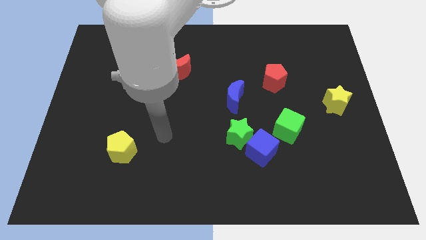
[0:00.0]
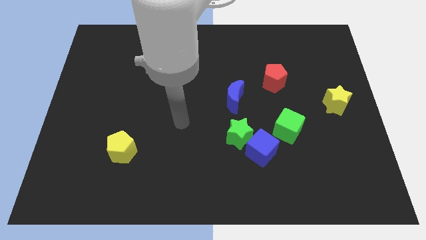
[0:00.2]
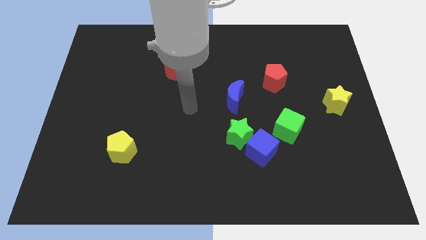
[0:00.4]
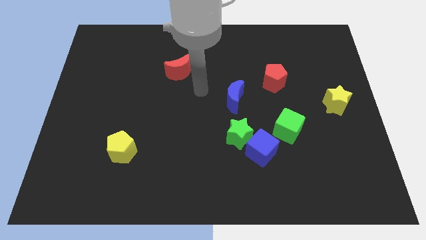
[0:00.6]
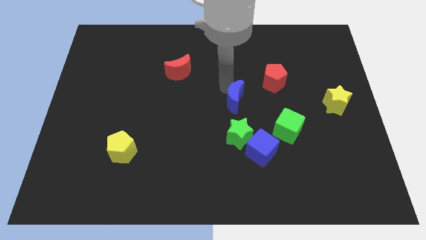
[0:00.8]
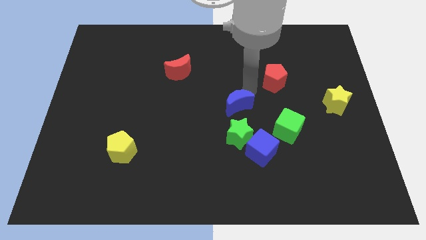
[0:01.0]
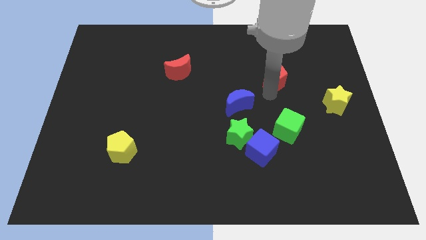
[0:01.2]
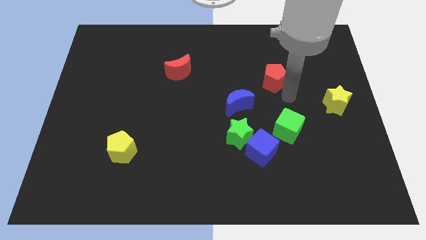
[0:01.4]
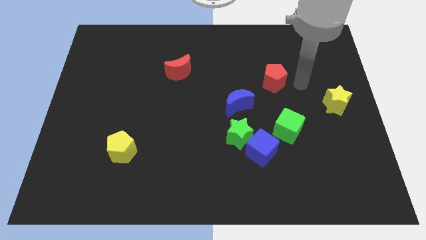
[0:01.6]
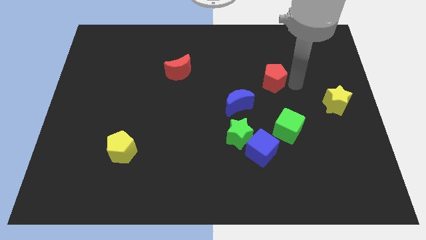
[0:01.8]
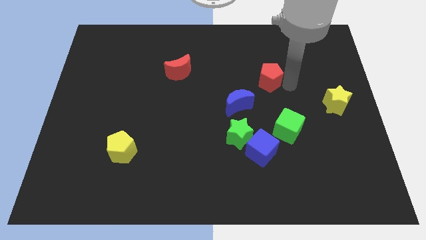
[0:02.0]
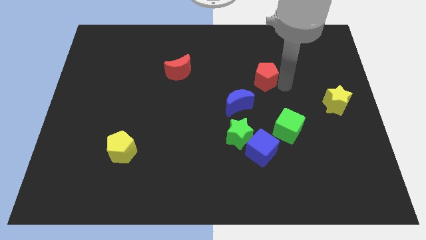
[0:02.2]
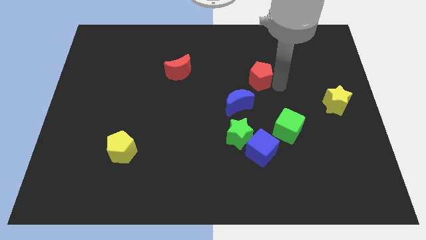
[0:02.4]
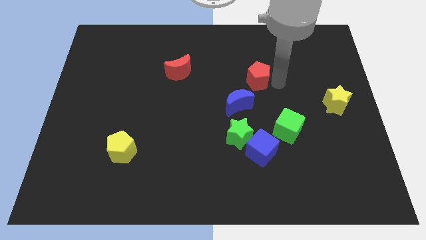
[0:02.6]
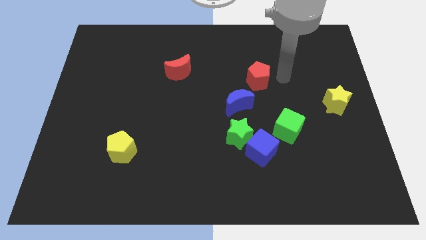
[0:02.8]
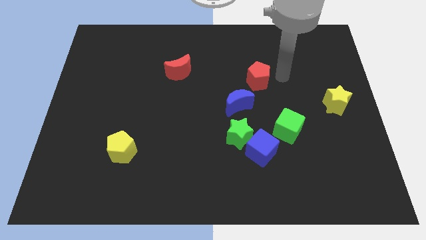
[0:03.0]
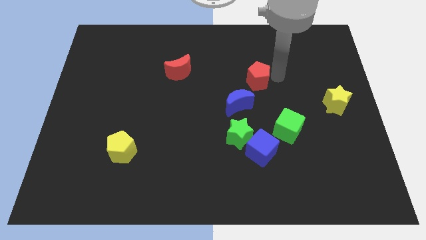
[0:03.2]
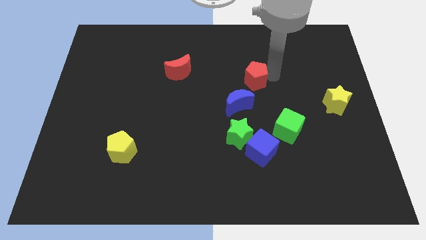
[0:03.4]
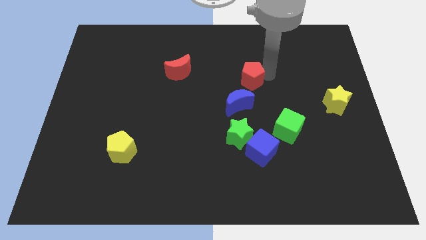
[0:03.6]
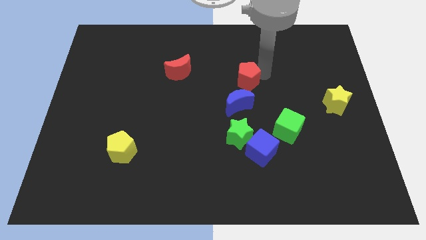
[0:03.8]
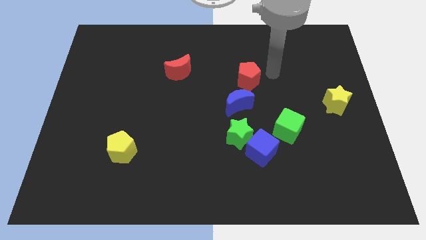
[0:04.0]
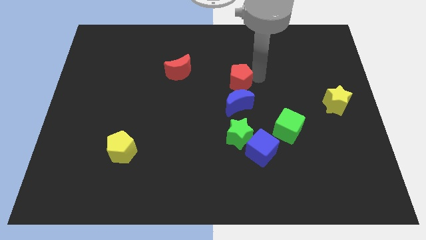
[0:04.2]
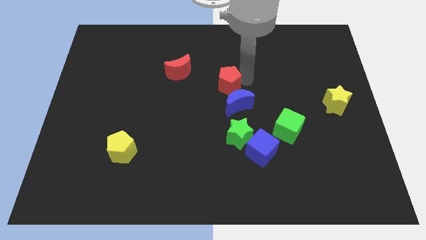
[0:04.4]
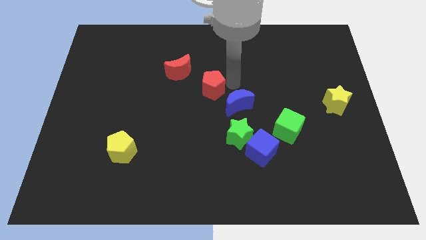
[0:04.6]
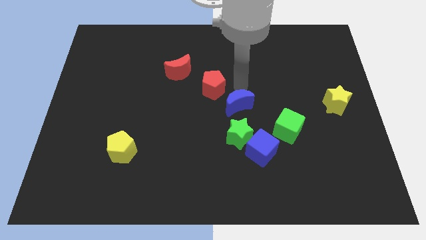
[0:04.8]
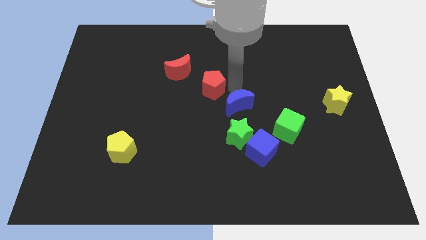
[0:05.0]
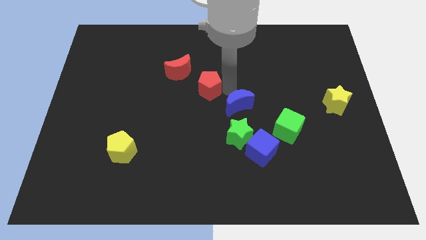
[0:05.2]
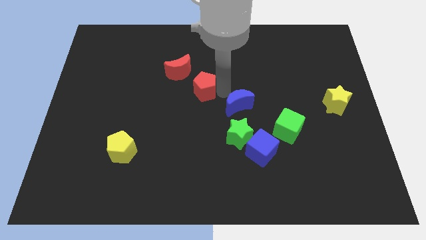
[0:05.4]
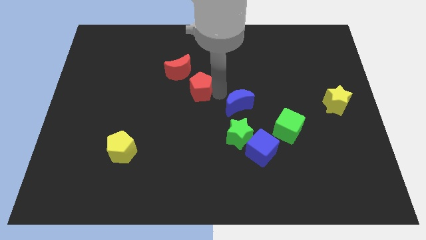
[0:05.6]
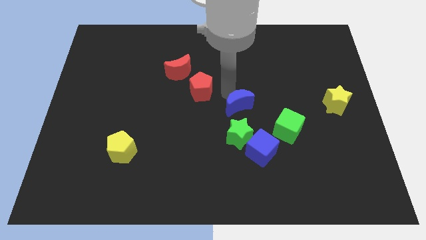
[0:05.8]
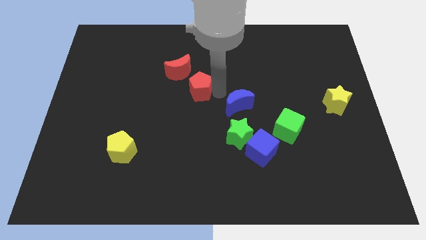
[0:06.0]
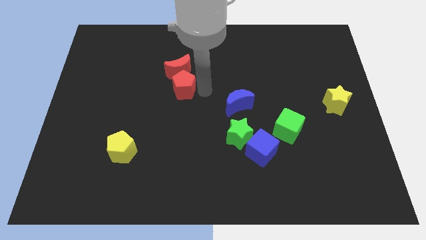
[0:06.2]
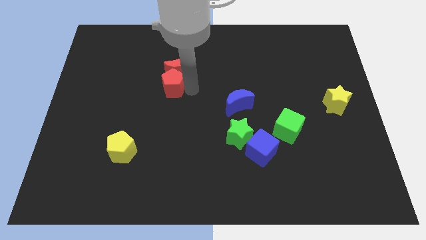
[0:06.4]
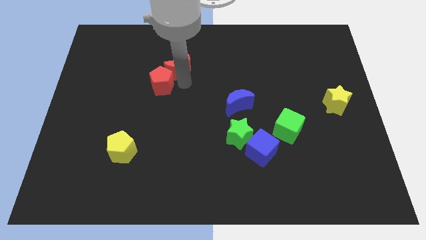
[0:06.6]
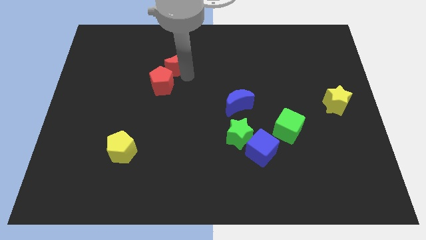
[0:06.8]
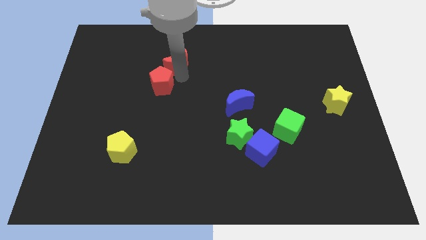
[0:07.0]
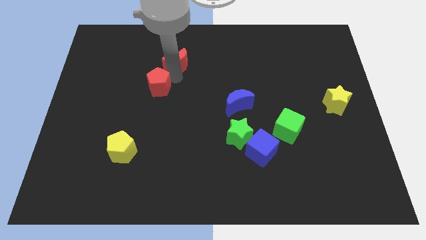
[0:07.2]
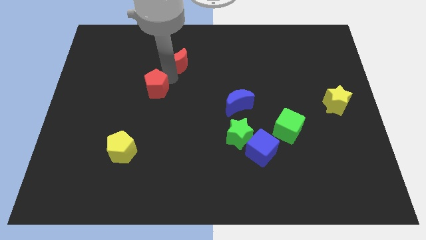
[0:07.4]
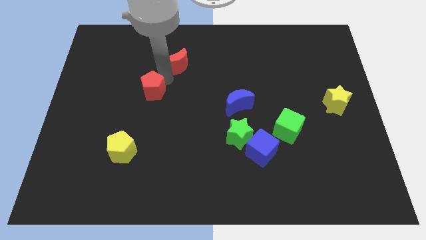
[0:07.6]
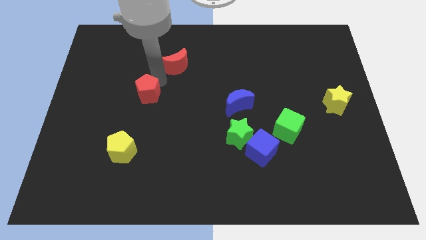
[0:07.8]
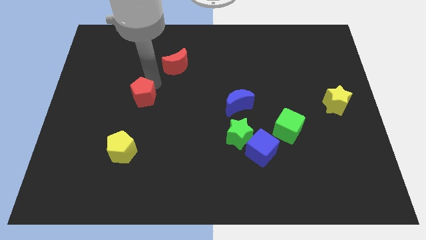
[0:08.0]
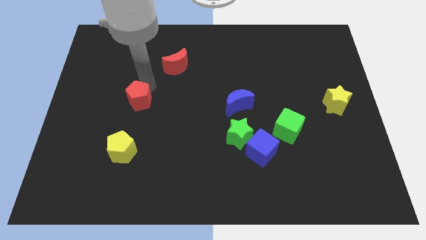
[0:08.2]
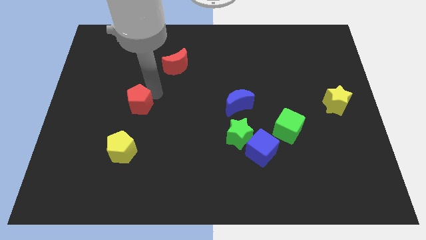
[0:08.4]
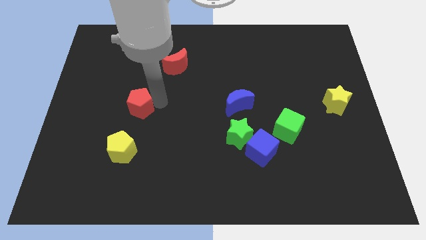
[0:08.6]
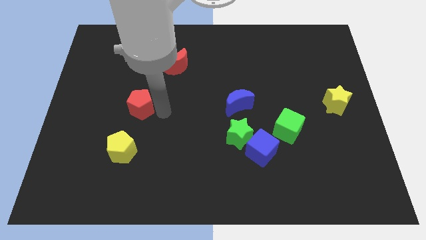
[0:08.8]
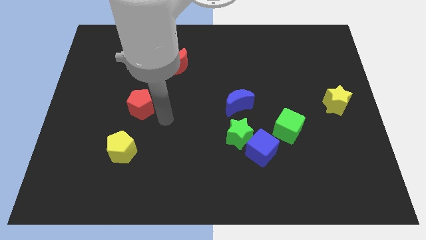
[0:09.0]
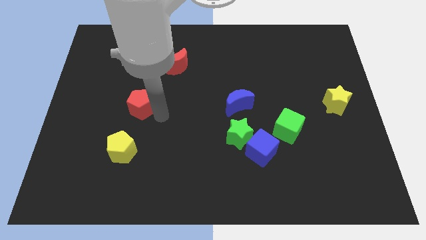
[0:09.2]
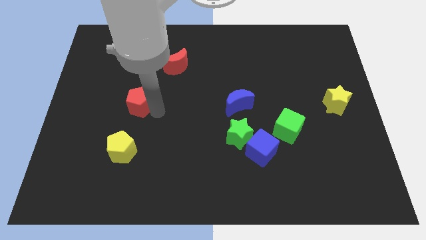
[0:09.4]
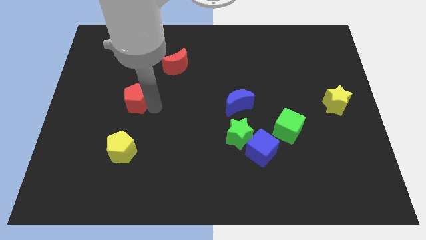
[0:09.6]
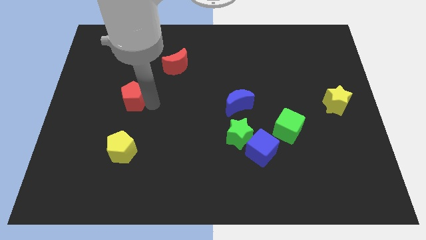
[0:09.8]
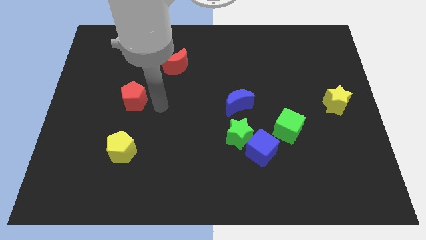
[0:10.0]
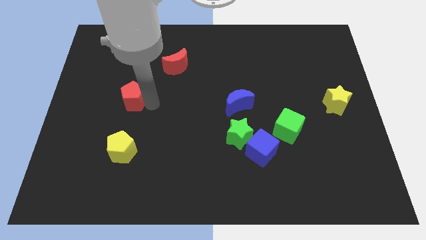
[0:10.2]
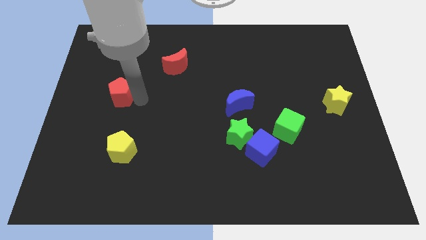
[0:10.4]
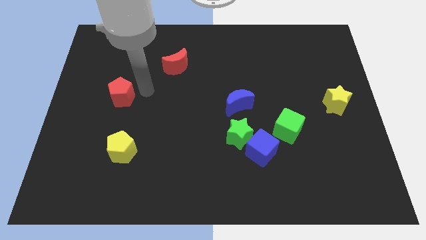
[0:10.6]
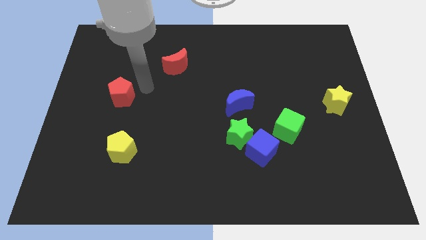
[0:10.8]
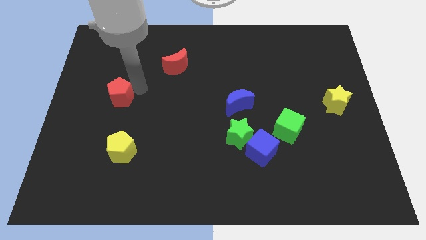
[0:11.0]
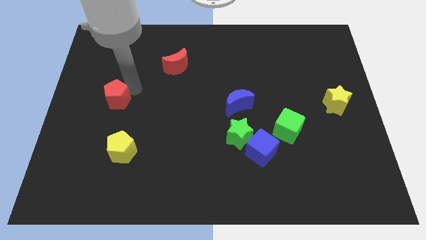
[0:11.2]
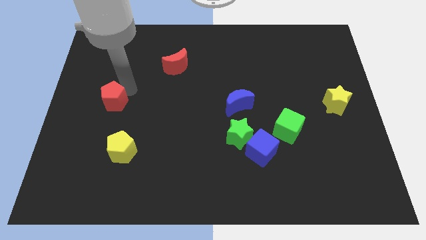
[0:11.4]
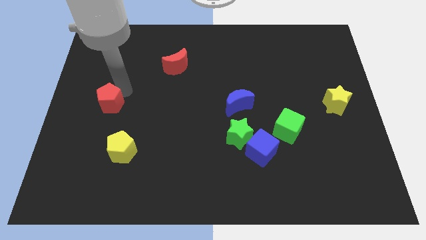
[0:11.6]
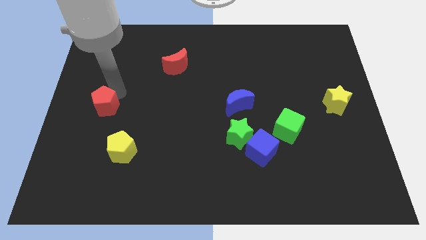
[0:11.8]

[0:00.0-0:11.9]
slide the red pentagon to the center left

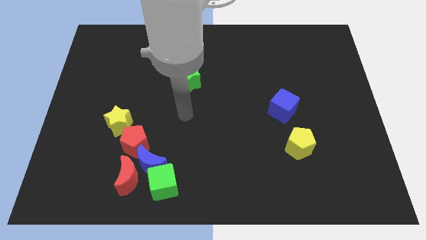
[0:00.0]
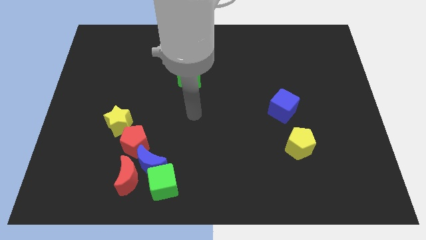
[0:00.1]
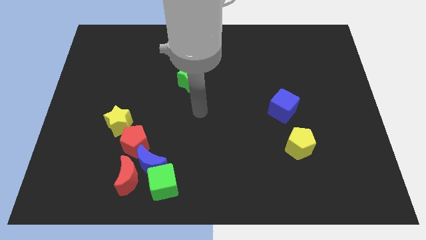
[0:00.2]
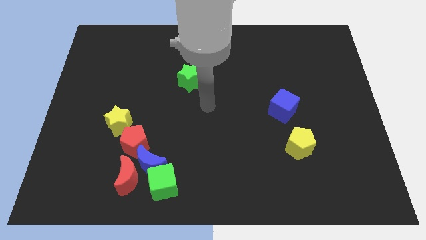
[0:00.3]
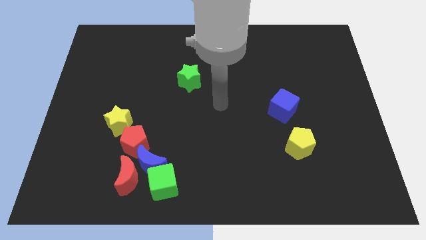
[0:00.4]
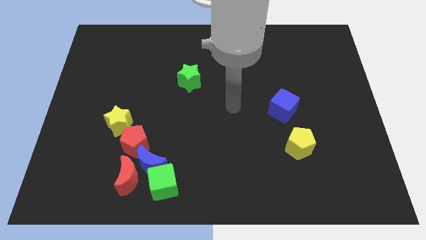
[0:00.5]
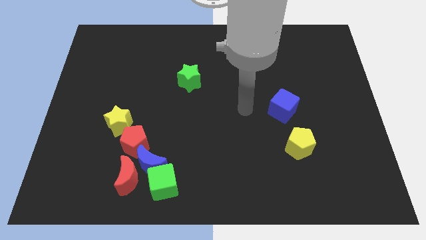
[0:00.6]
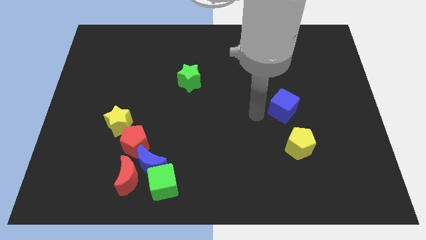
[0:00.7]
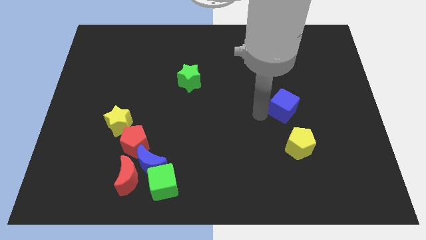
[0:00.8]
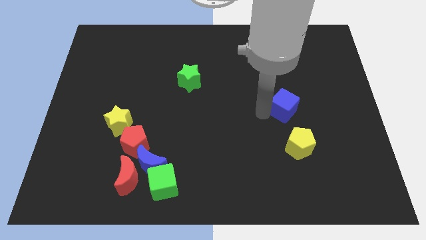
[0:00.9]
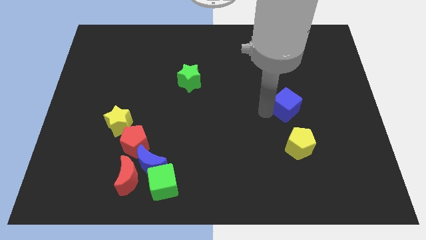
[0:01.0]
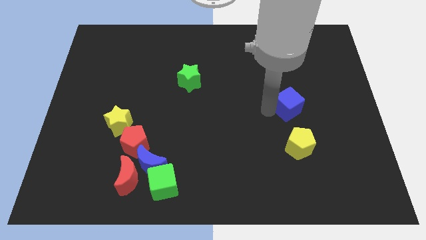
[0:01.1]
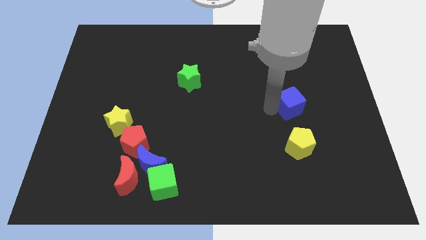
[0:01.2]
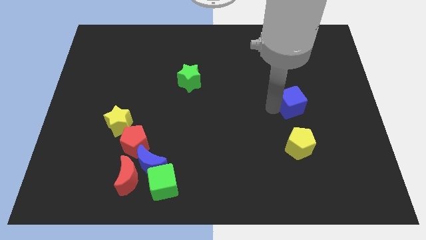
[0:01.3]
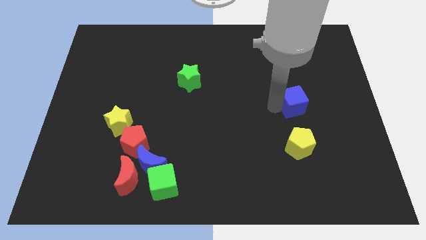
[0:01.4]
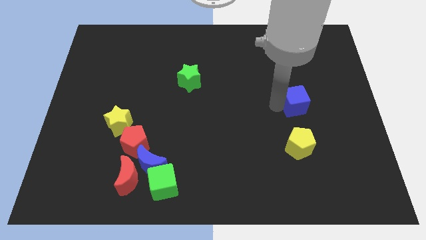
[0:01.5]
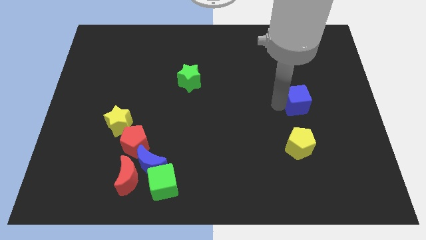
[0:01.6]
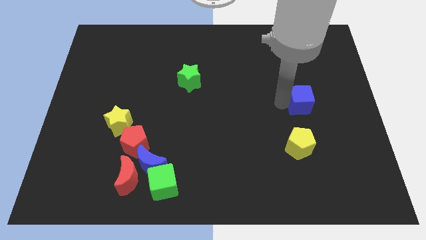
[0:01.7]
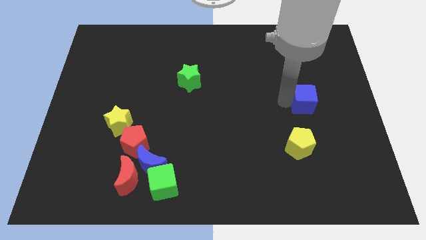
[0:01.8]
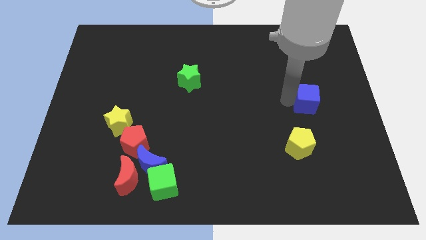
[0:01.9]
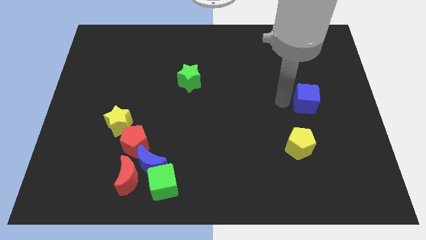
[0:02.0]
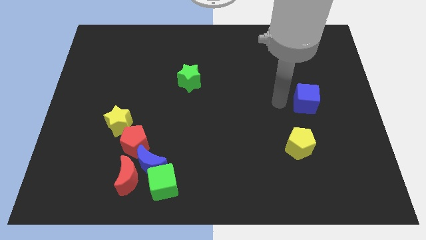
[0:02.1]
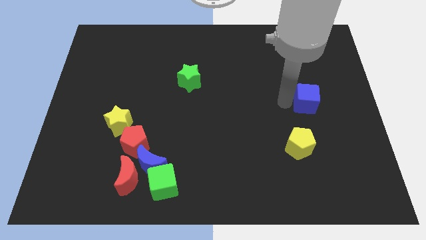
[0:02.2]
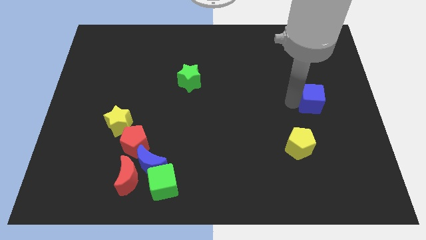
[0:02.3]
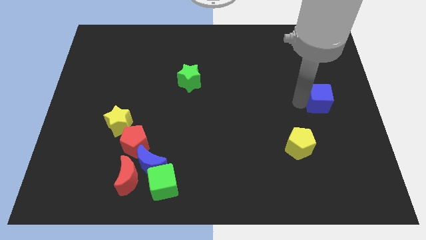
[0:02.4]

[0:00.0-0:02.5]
push the blue cube to the right side of the board
